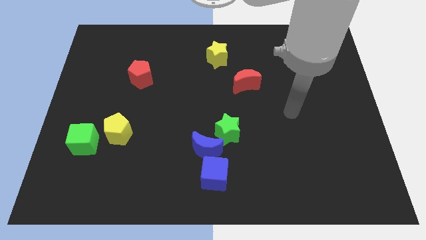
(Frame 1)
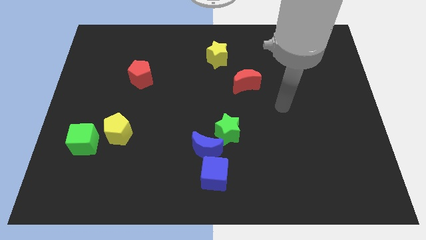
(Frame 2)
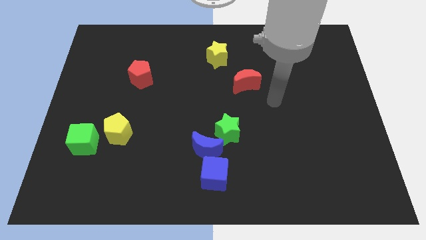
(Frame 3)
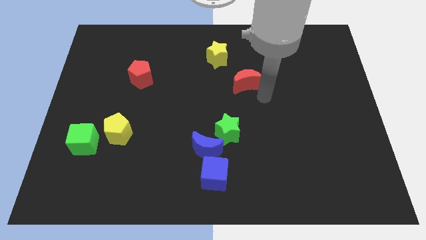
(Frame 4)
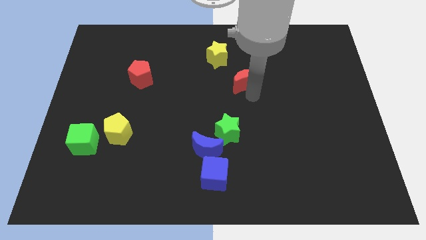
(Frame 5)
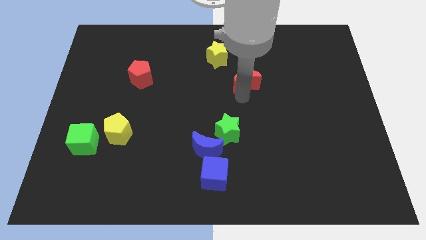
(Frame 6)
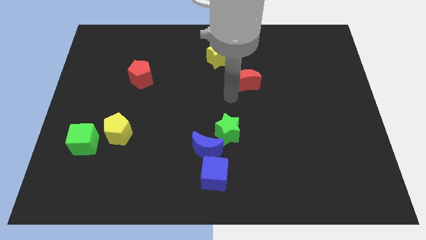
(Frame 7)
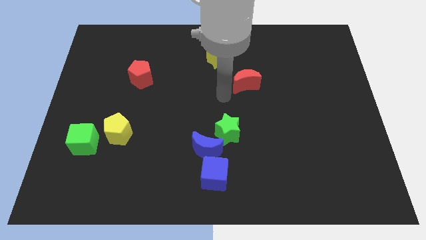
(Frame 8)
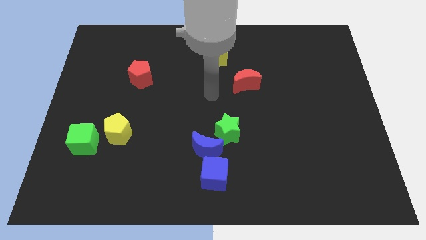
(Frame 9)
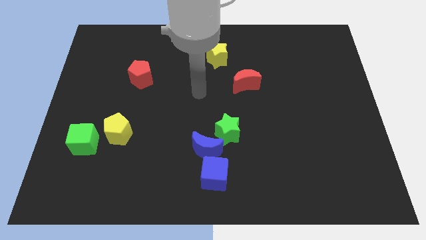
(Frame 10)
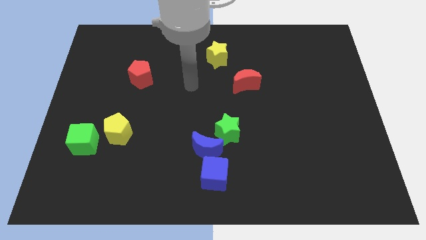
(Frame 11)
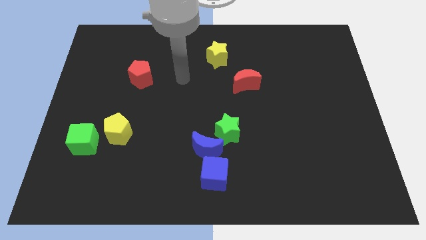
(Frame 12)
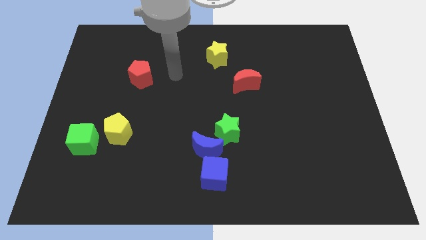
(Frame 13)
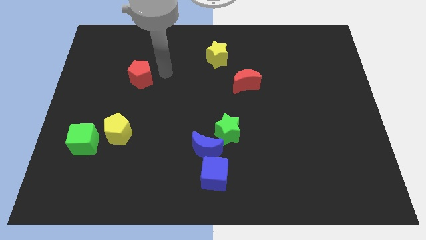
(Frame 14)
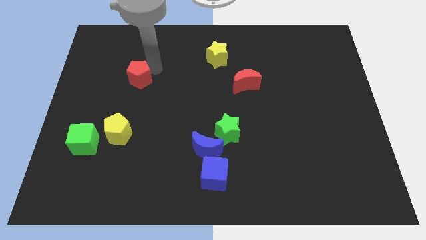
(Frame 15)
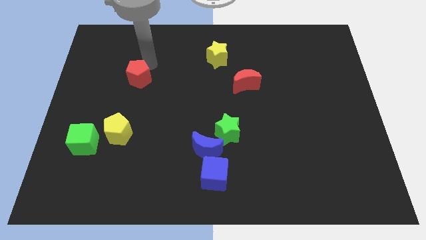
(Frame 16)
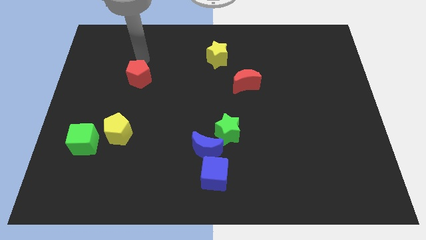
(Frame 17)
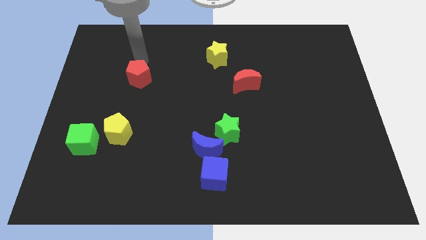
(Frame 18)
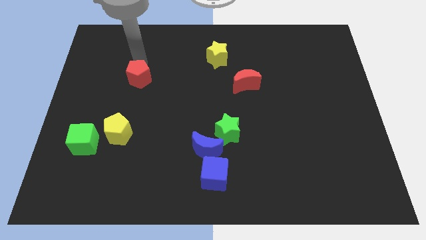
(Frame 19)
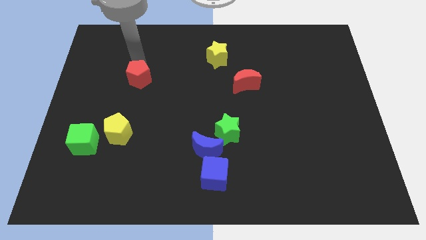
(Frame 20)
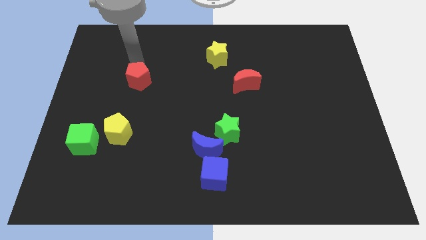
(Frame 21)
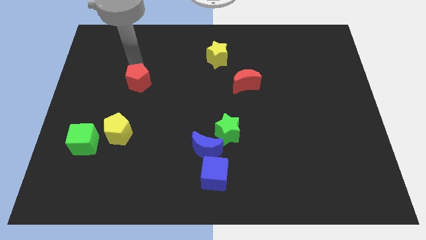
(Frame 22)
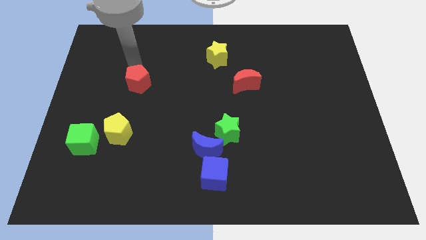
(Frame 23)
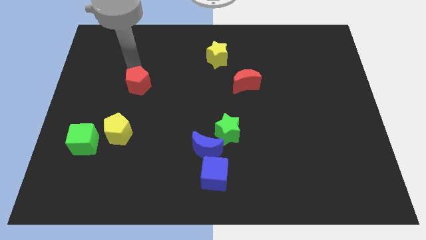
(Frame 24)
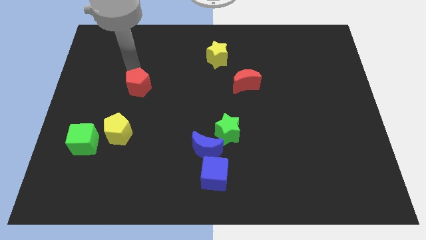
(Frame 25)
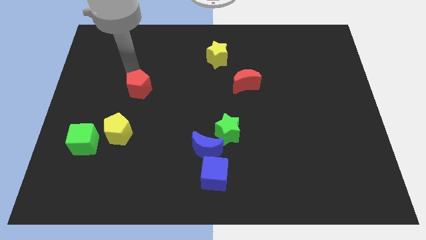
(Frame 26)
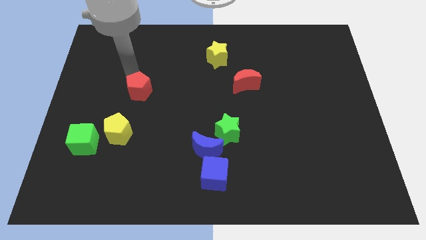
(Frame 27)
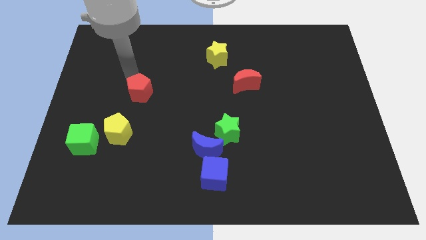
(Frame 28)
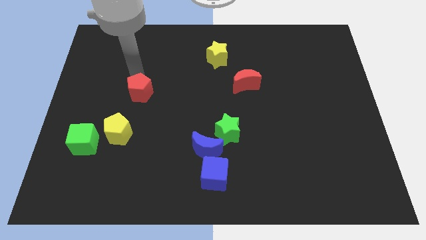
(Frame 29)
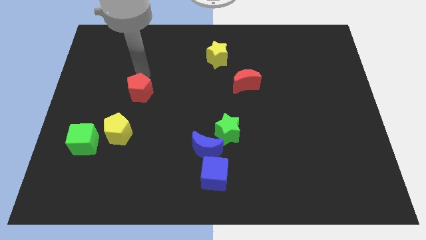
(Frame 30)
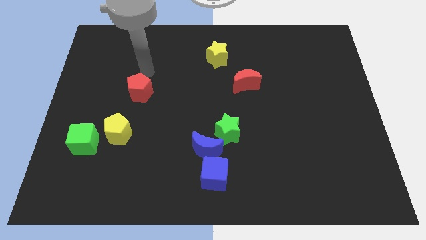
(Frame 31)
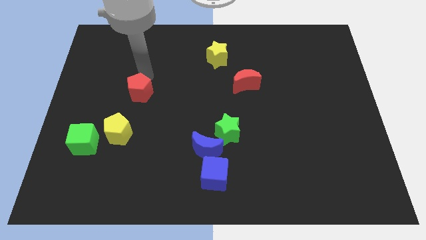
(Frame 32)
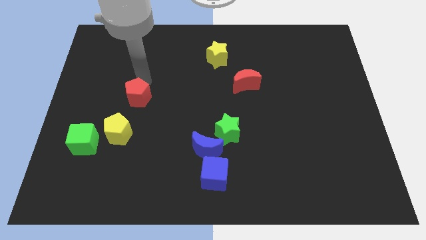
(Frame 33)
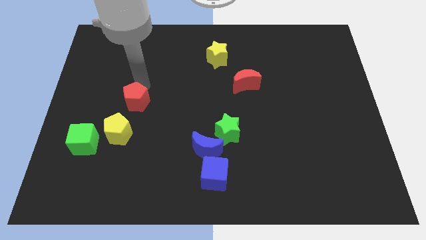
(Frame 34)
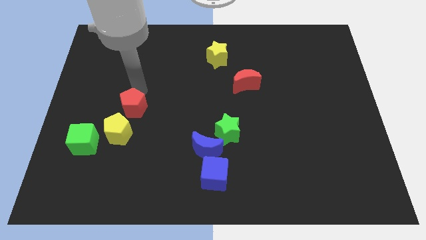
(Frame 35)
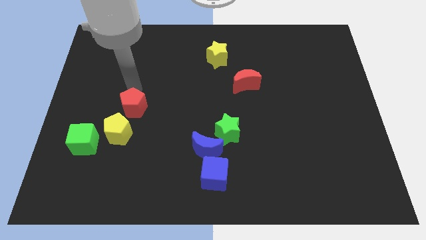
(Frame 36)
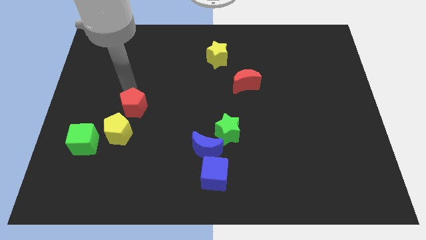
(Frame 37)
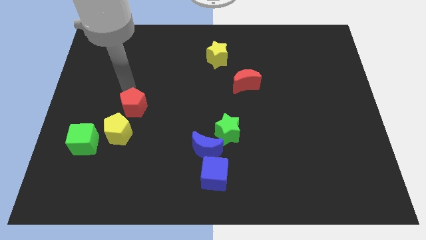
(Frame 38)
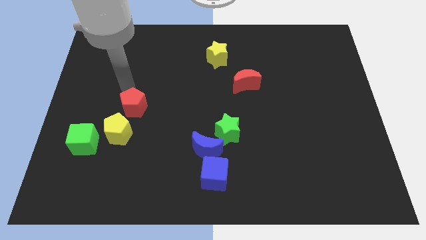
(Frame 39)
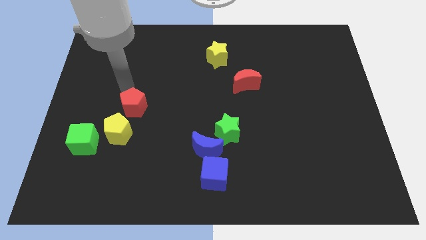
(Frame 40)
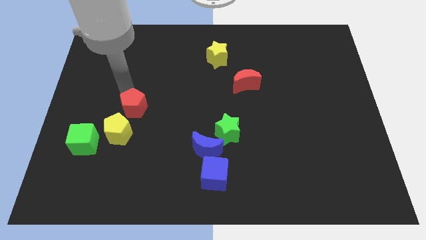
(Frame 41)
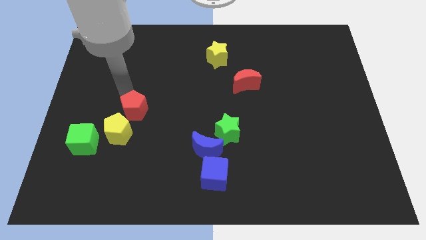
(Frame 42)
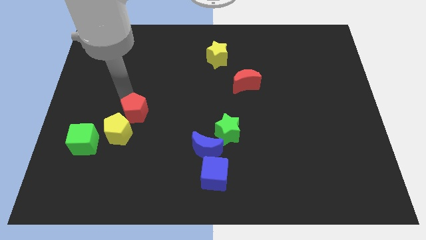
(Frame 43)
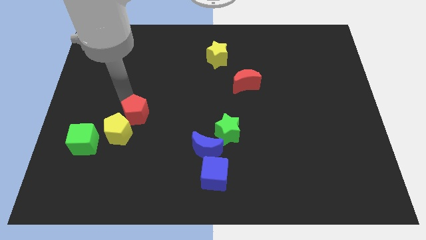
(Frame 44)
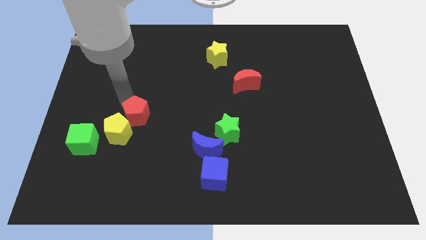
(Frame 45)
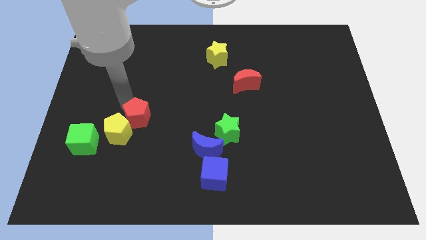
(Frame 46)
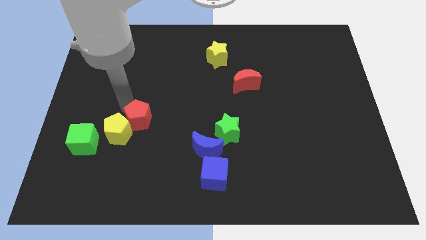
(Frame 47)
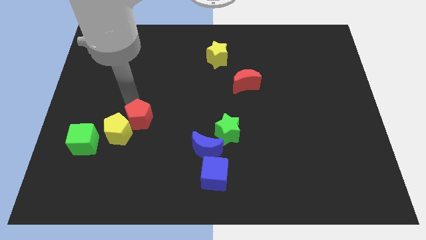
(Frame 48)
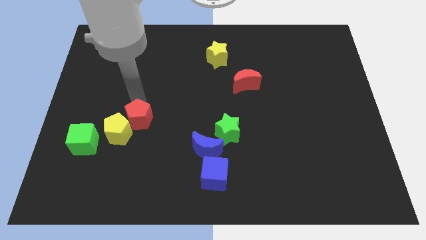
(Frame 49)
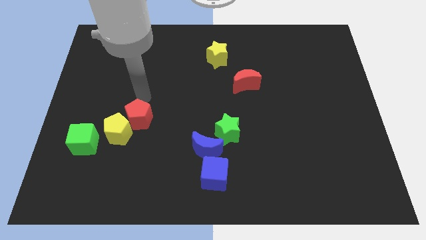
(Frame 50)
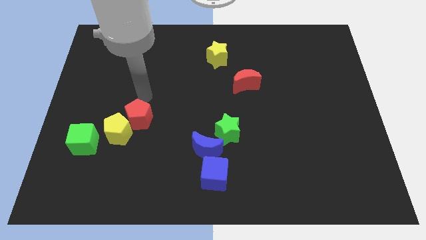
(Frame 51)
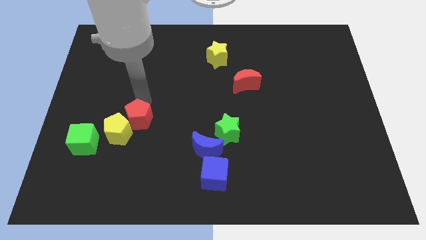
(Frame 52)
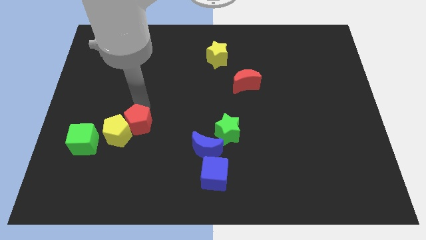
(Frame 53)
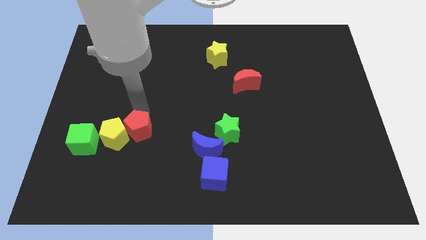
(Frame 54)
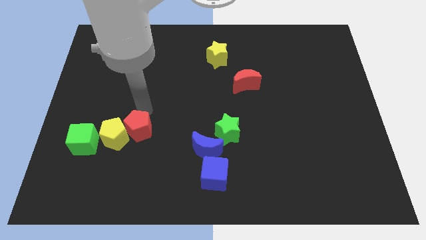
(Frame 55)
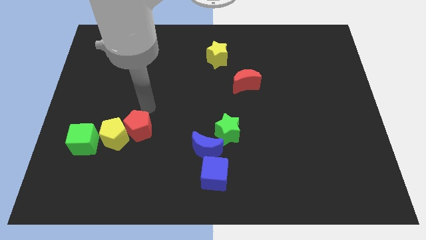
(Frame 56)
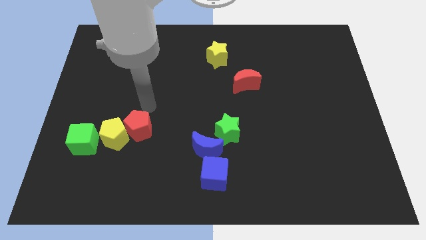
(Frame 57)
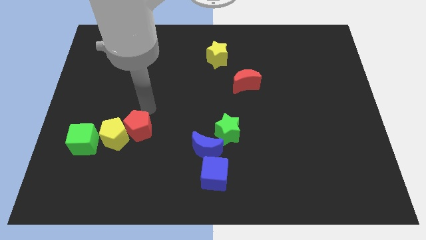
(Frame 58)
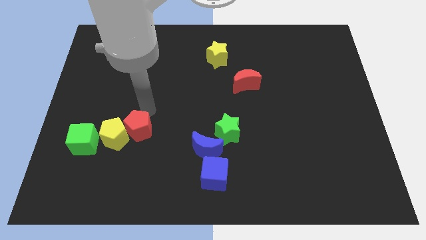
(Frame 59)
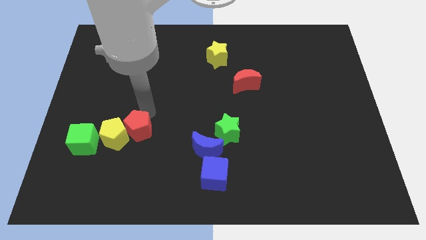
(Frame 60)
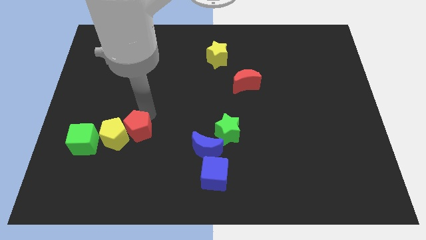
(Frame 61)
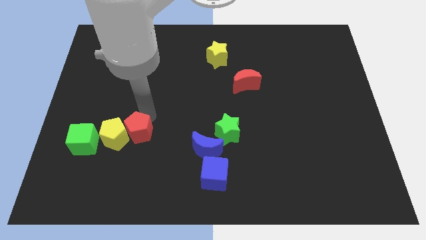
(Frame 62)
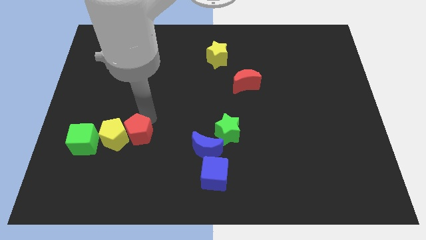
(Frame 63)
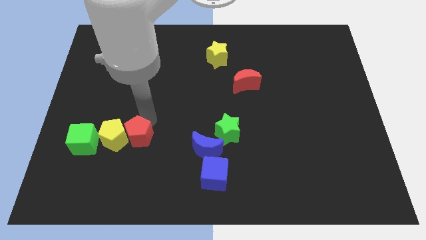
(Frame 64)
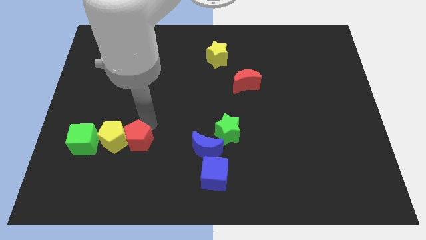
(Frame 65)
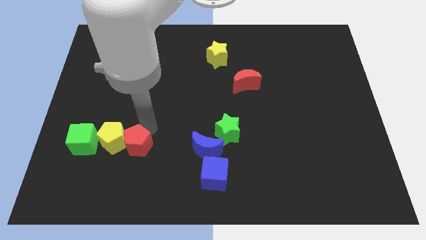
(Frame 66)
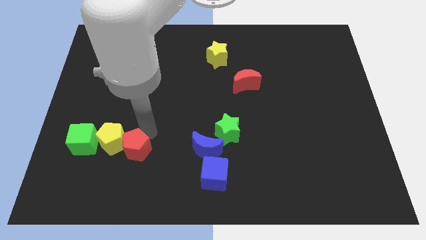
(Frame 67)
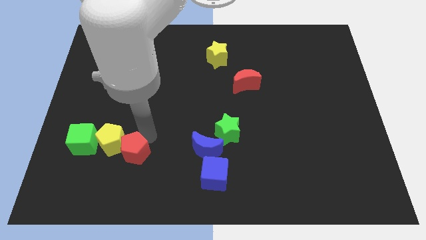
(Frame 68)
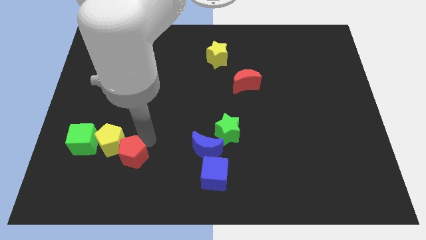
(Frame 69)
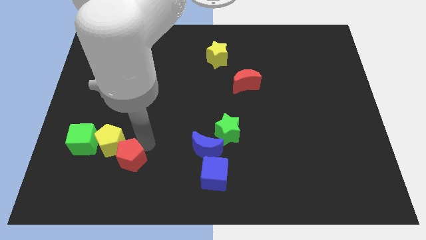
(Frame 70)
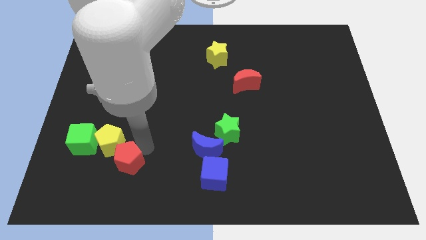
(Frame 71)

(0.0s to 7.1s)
slide the red pentagon to the bottom side of the yellow pentagon
